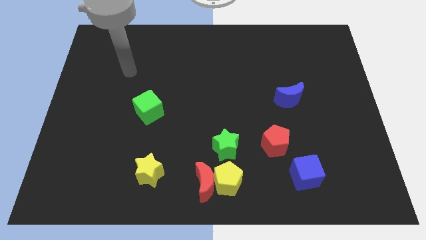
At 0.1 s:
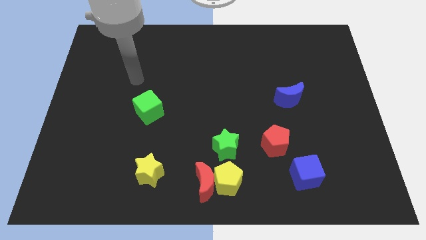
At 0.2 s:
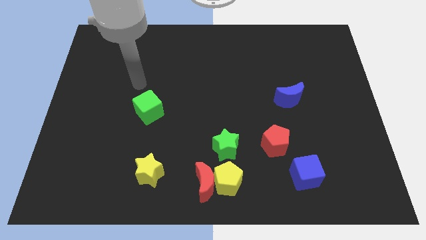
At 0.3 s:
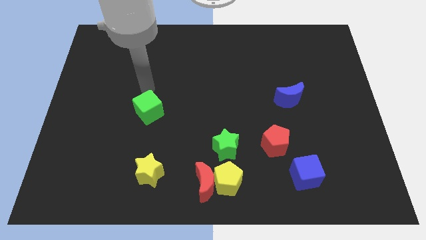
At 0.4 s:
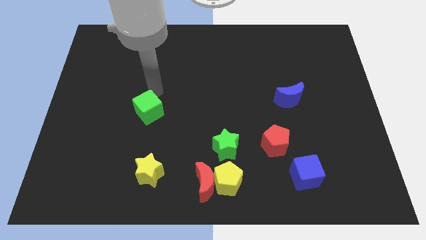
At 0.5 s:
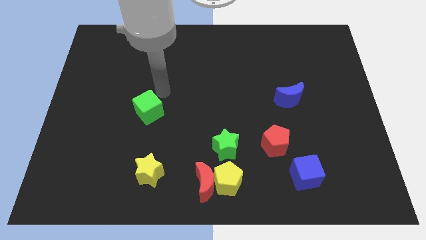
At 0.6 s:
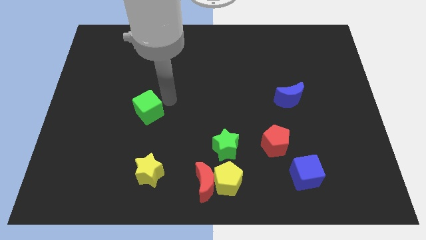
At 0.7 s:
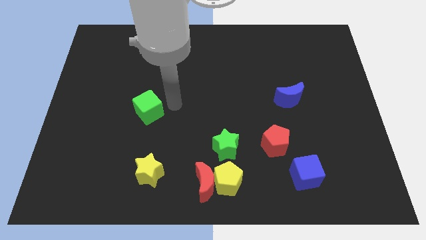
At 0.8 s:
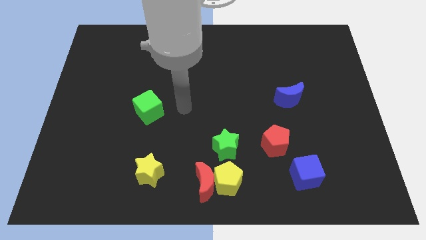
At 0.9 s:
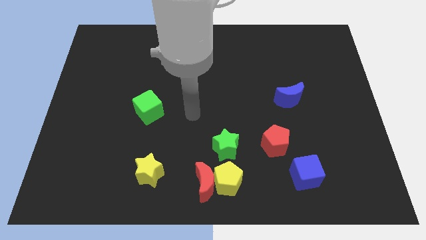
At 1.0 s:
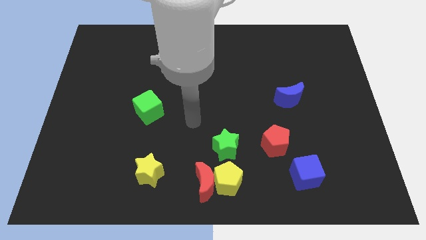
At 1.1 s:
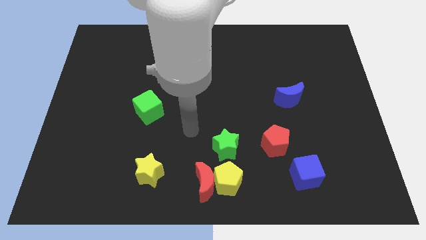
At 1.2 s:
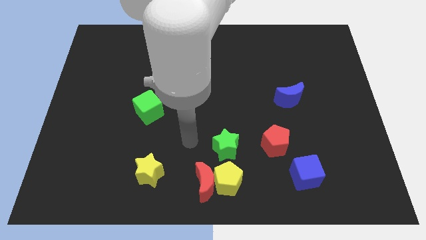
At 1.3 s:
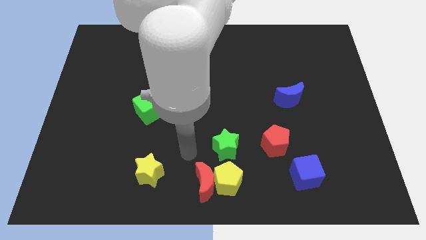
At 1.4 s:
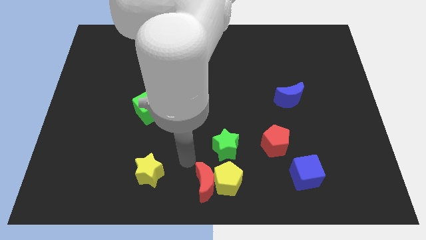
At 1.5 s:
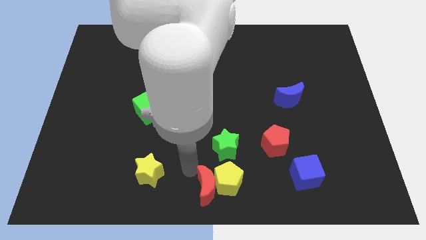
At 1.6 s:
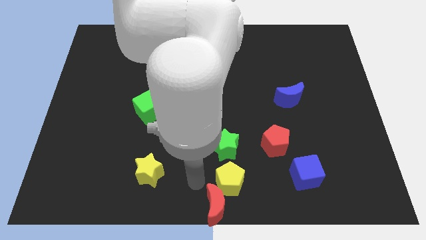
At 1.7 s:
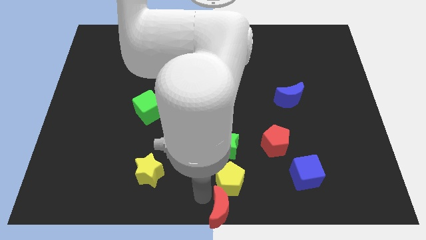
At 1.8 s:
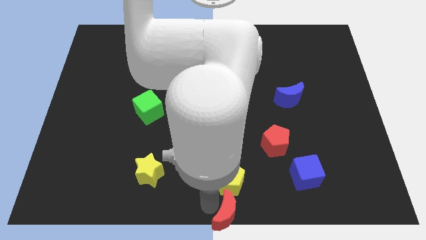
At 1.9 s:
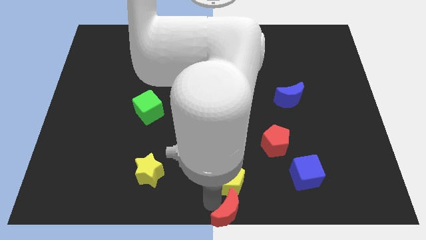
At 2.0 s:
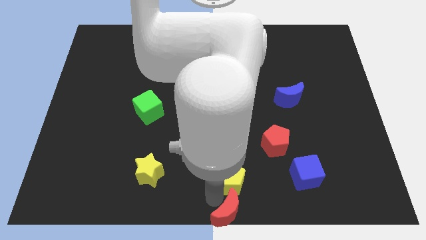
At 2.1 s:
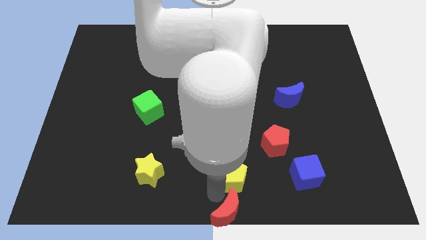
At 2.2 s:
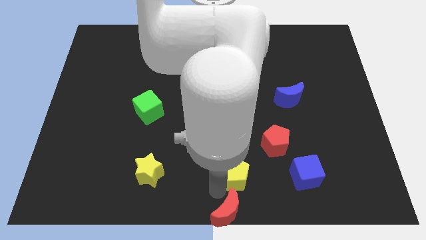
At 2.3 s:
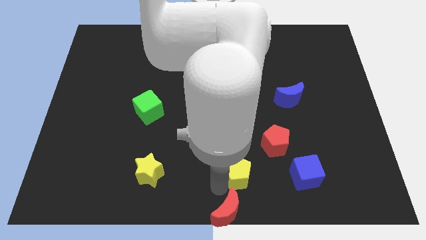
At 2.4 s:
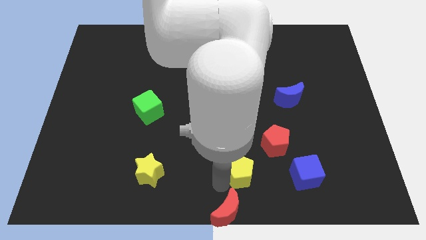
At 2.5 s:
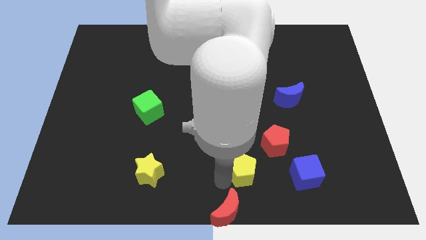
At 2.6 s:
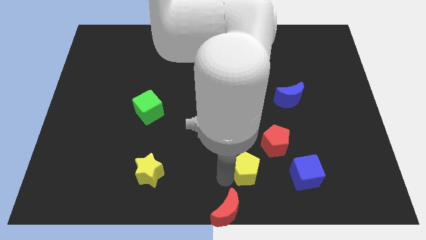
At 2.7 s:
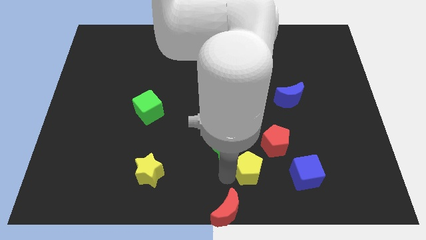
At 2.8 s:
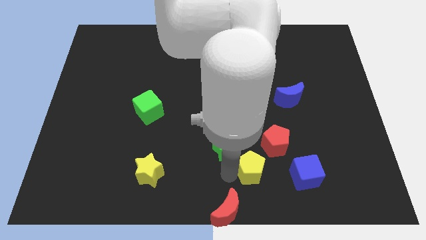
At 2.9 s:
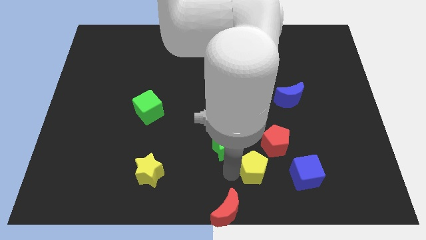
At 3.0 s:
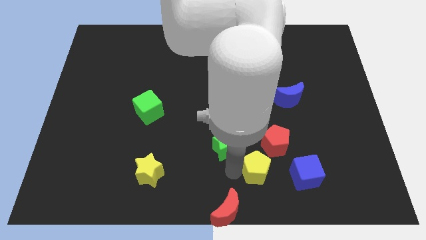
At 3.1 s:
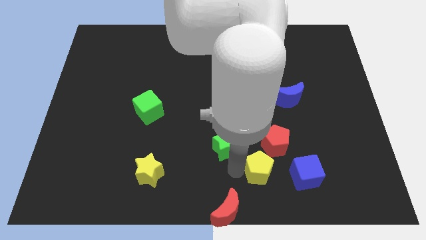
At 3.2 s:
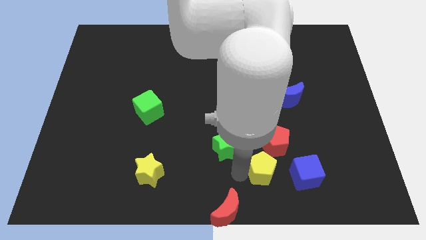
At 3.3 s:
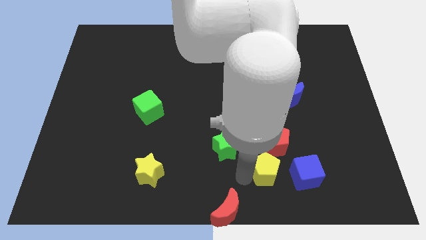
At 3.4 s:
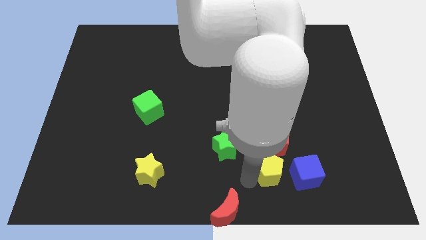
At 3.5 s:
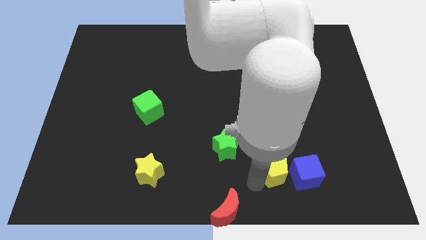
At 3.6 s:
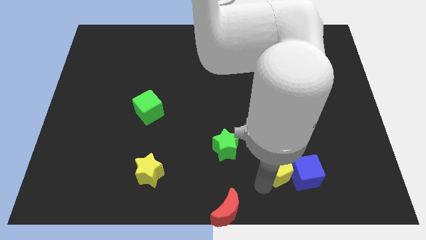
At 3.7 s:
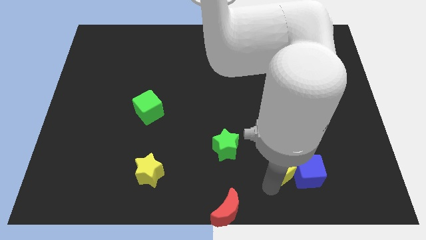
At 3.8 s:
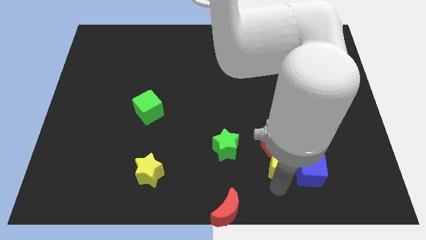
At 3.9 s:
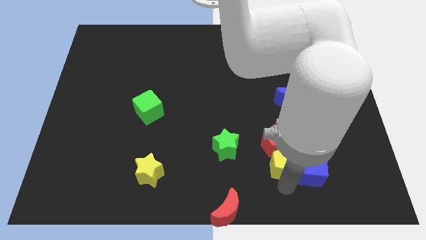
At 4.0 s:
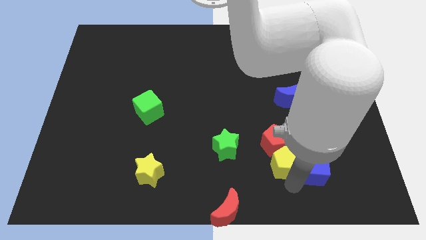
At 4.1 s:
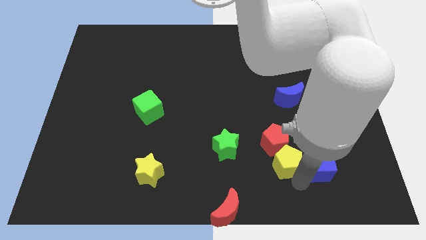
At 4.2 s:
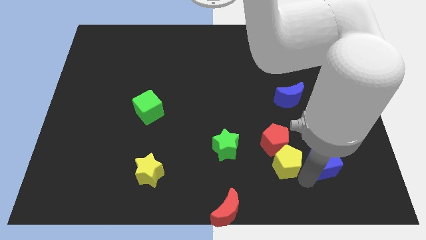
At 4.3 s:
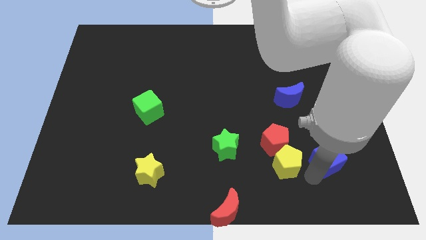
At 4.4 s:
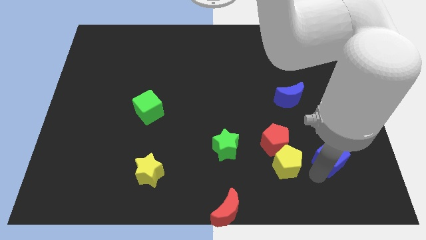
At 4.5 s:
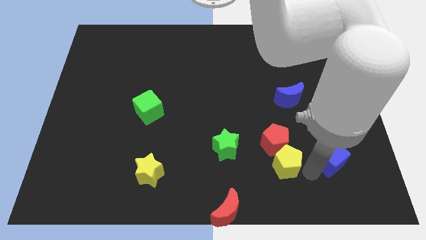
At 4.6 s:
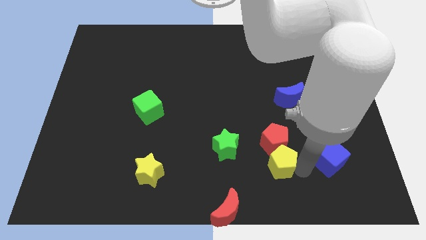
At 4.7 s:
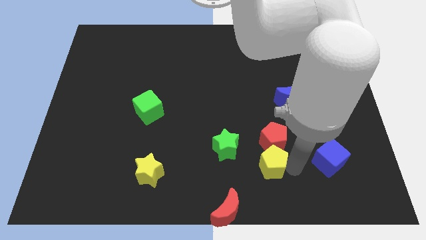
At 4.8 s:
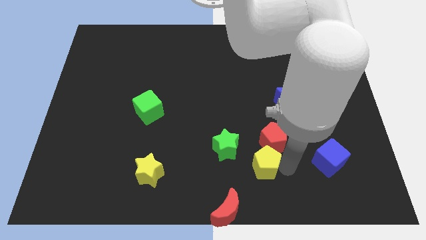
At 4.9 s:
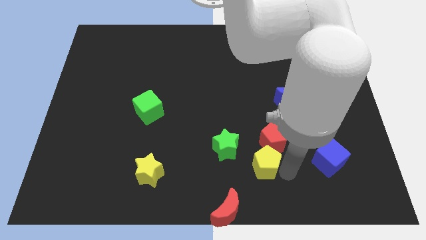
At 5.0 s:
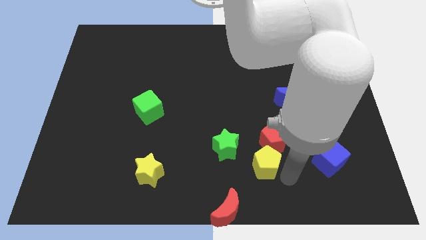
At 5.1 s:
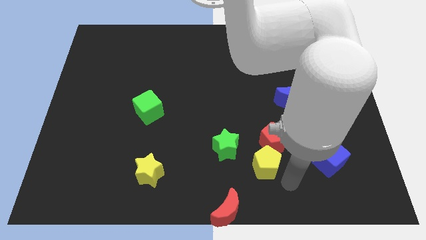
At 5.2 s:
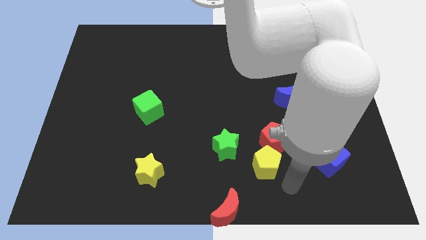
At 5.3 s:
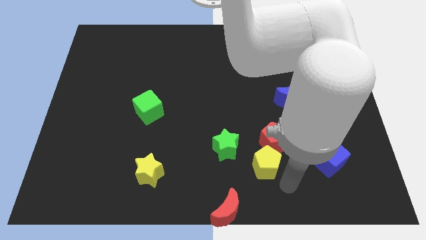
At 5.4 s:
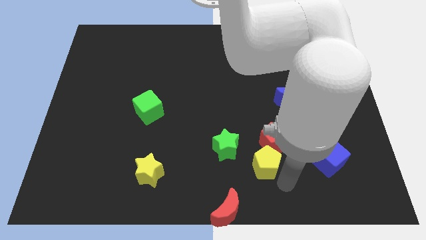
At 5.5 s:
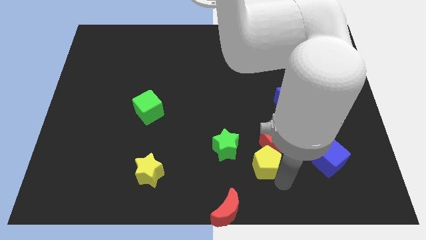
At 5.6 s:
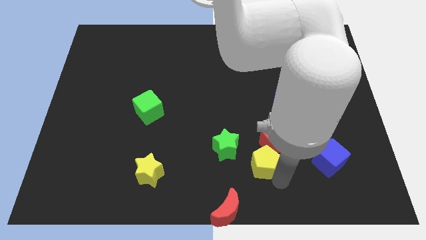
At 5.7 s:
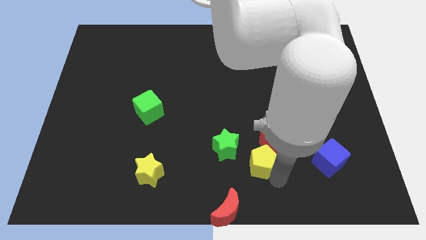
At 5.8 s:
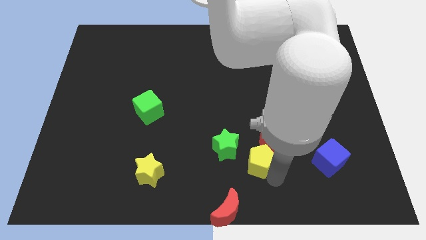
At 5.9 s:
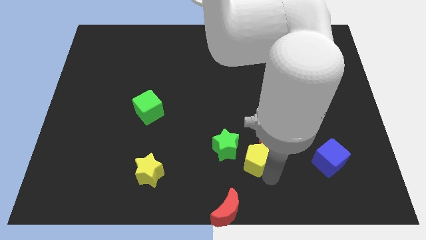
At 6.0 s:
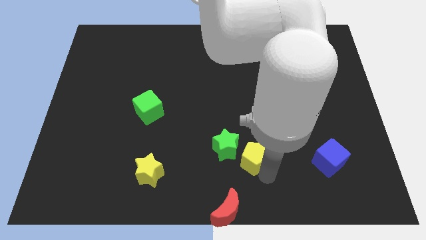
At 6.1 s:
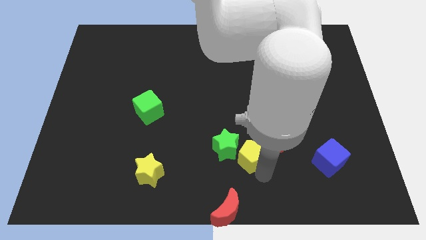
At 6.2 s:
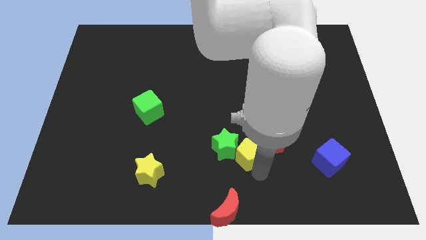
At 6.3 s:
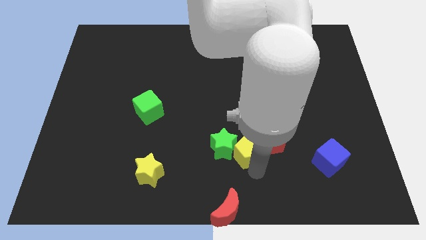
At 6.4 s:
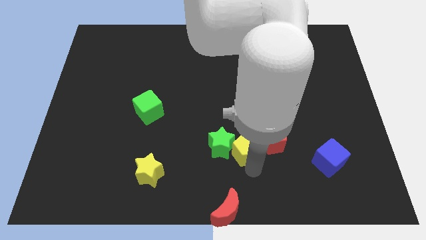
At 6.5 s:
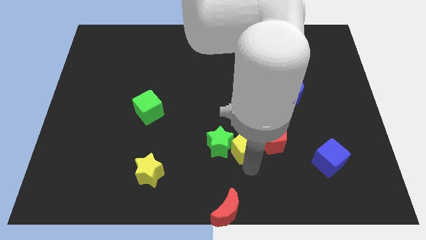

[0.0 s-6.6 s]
slightly slide the yellow pentagon upwards

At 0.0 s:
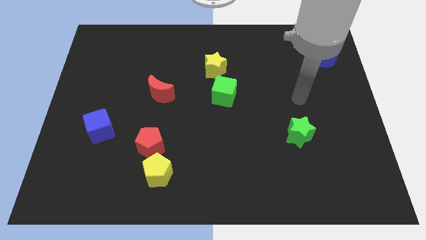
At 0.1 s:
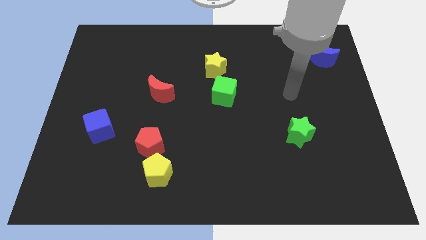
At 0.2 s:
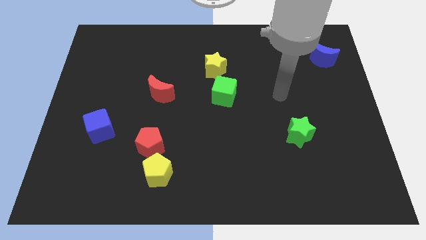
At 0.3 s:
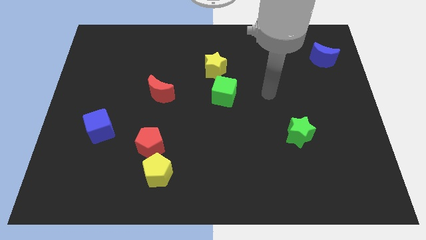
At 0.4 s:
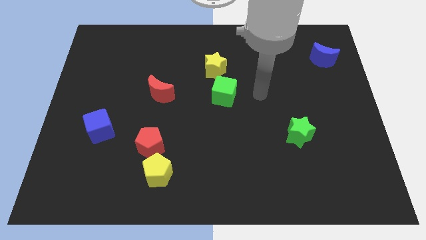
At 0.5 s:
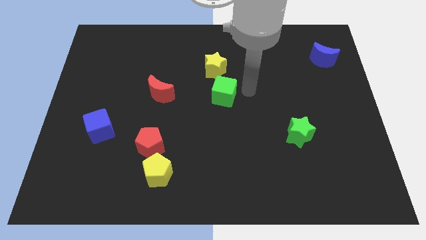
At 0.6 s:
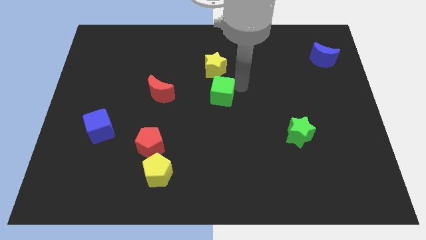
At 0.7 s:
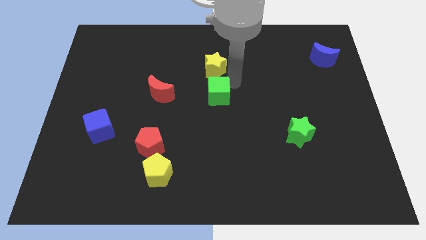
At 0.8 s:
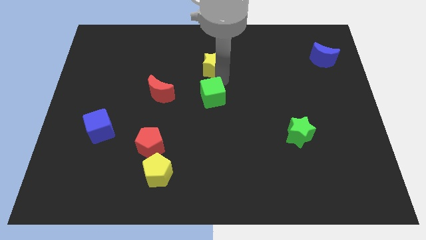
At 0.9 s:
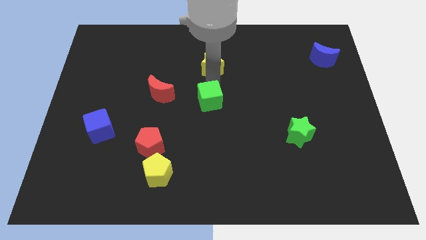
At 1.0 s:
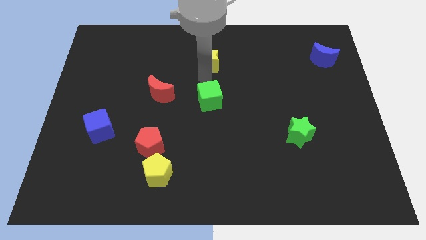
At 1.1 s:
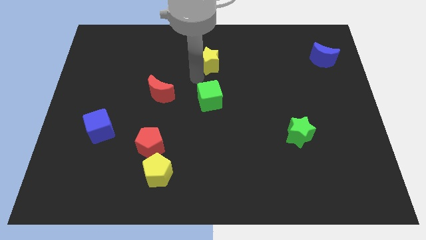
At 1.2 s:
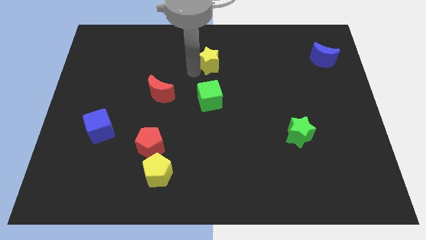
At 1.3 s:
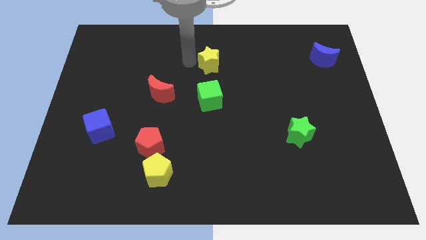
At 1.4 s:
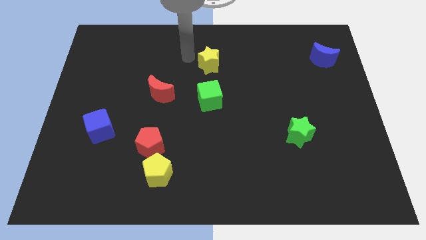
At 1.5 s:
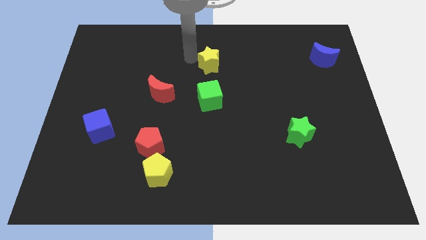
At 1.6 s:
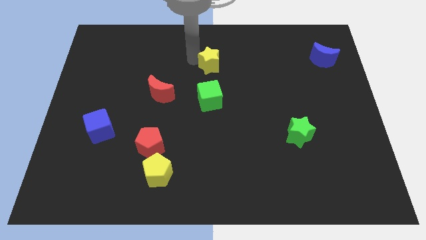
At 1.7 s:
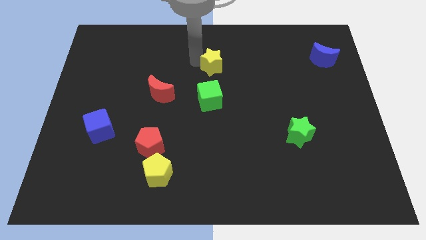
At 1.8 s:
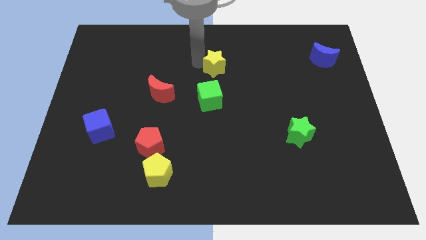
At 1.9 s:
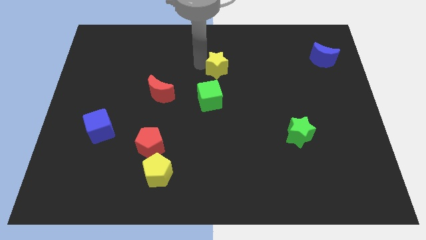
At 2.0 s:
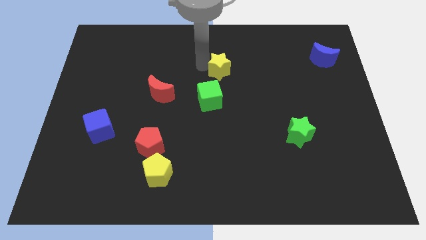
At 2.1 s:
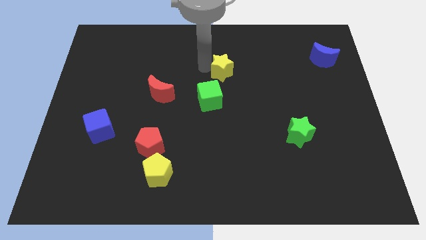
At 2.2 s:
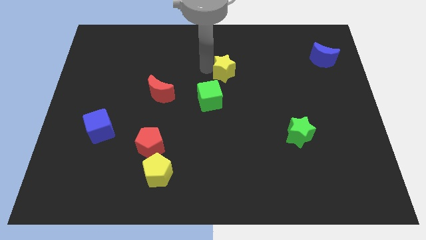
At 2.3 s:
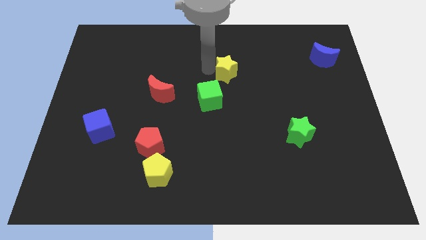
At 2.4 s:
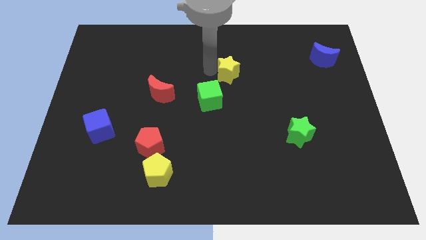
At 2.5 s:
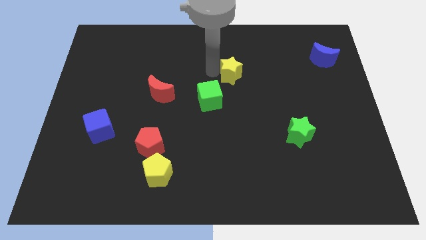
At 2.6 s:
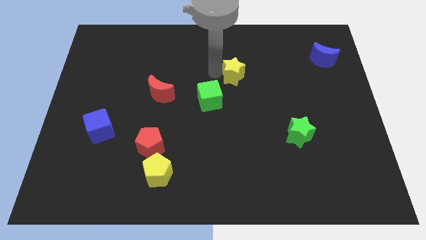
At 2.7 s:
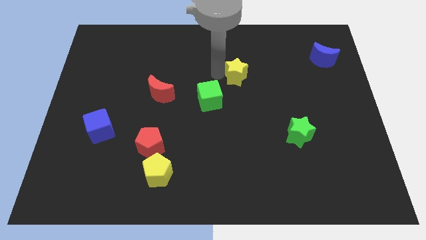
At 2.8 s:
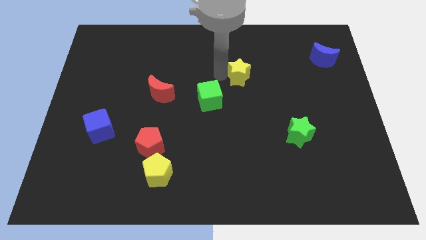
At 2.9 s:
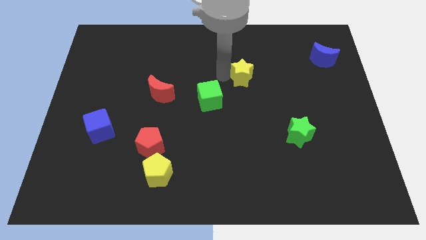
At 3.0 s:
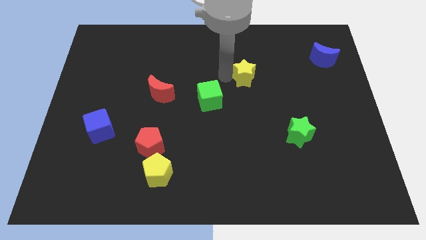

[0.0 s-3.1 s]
slightly push the yellow star right
